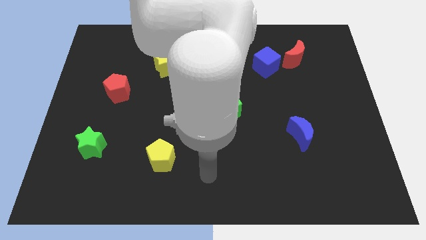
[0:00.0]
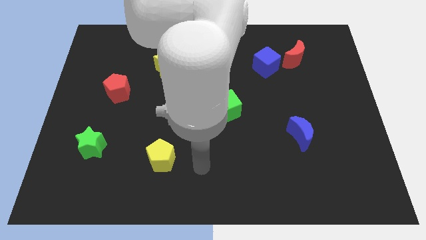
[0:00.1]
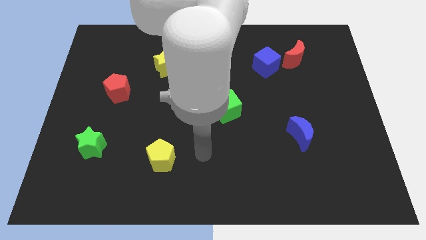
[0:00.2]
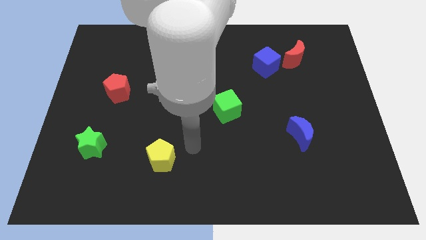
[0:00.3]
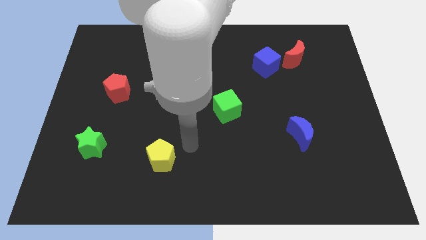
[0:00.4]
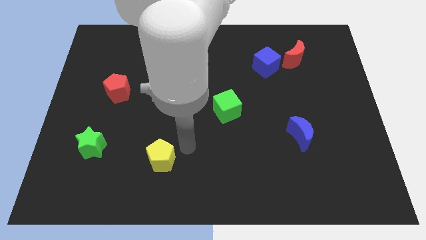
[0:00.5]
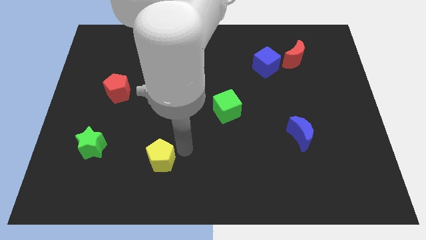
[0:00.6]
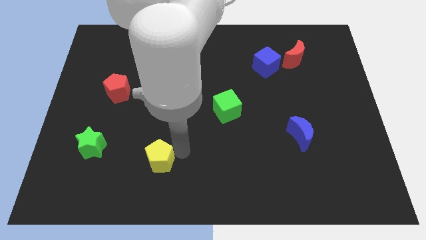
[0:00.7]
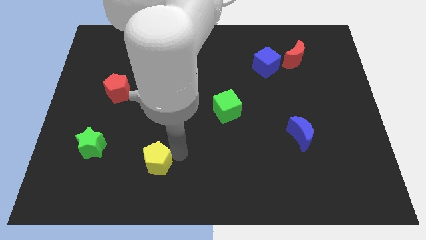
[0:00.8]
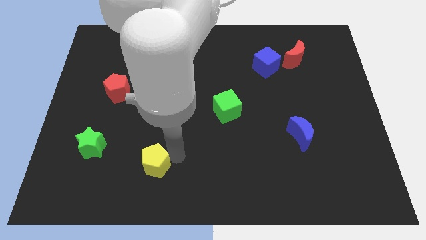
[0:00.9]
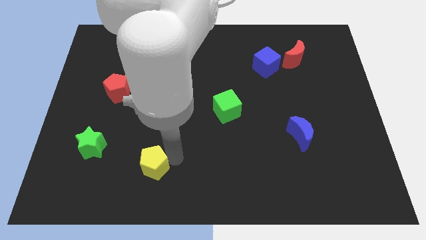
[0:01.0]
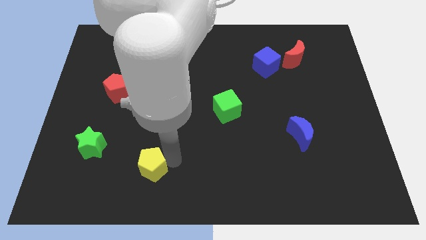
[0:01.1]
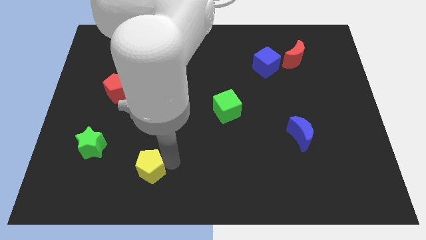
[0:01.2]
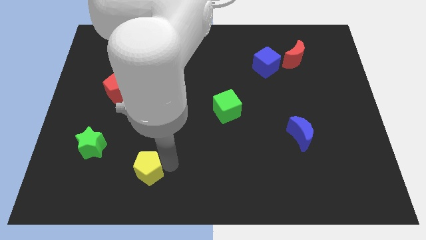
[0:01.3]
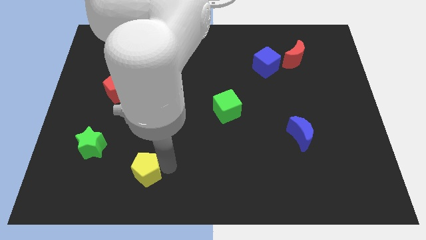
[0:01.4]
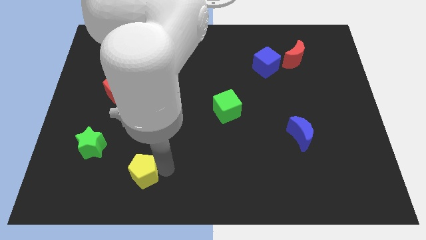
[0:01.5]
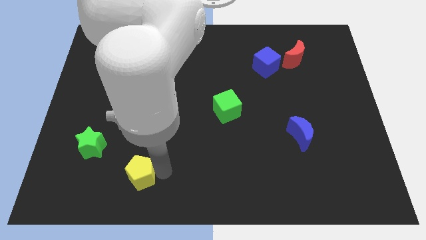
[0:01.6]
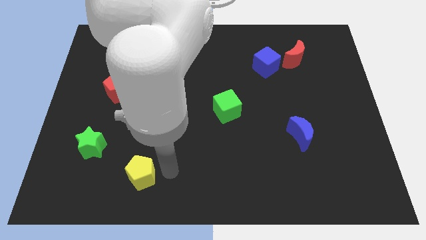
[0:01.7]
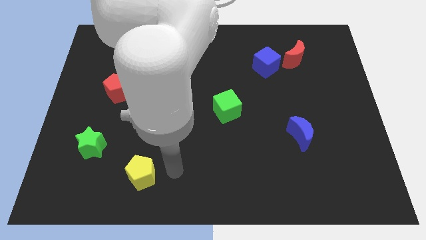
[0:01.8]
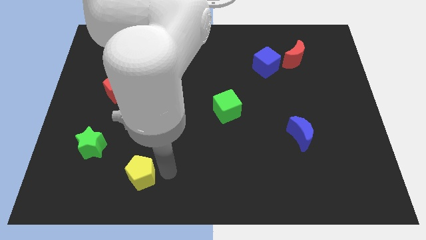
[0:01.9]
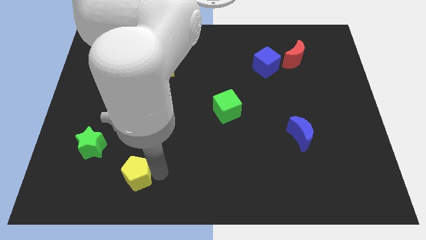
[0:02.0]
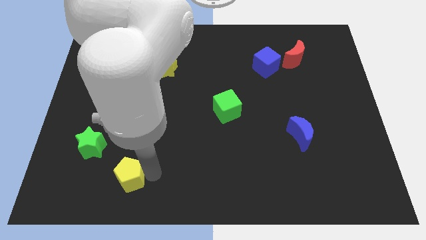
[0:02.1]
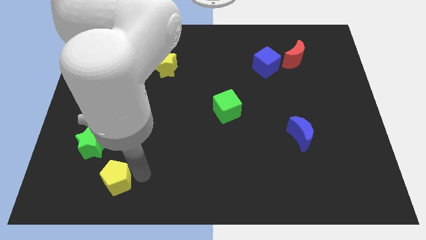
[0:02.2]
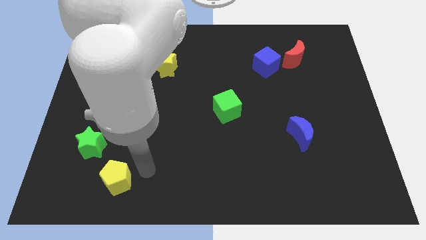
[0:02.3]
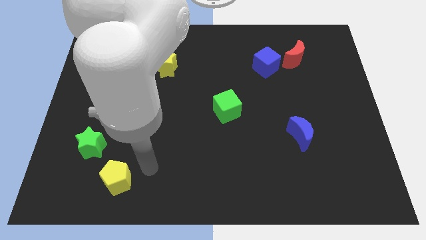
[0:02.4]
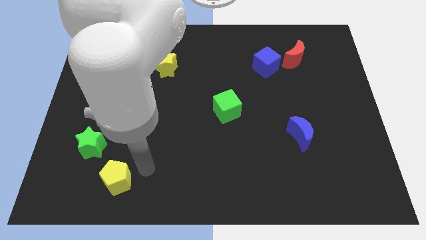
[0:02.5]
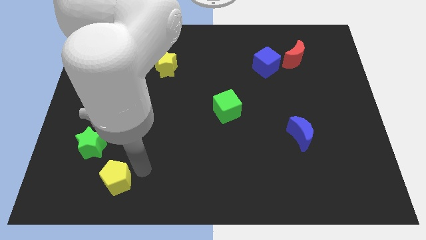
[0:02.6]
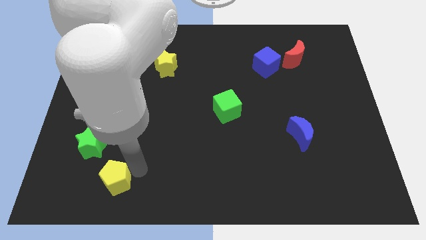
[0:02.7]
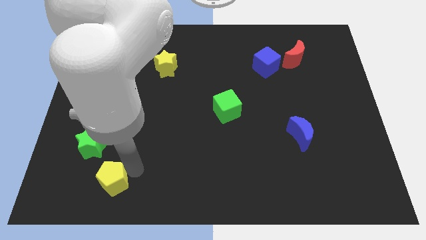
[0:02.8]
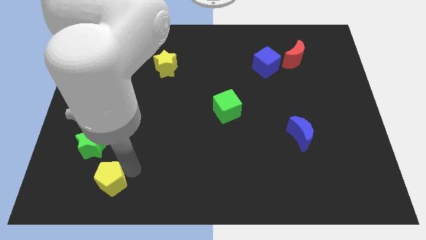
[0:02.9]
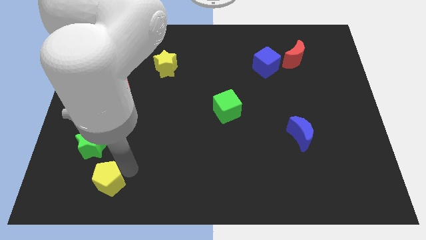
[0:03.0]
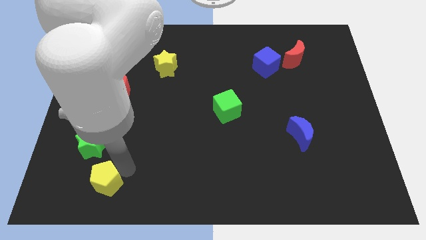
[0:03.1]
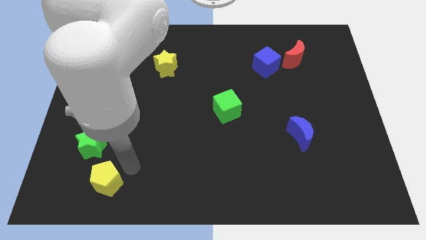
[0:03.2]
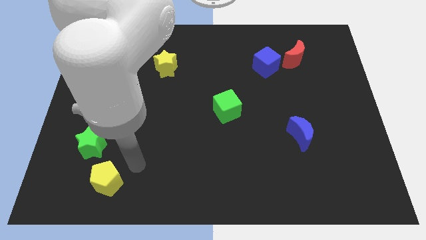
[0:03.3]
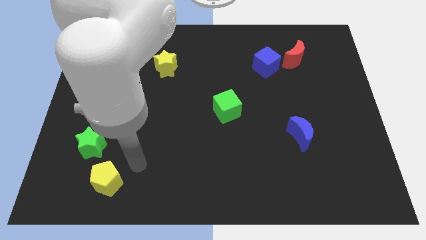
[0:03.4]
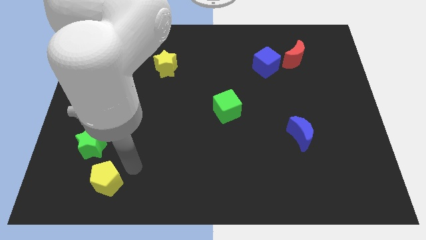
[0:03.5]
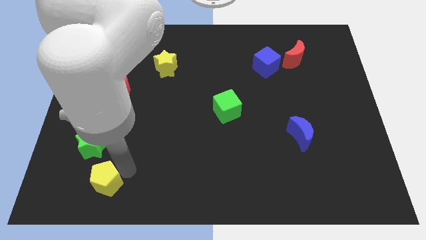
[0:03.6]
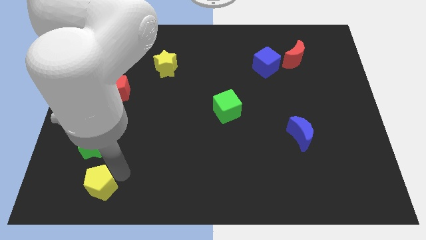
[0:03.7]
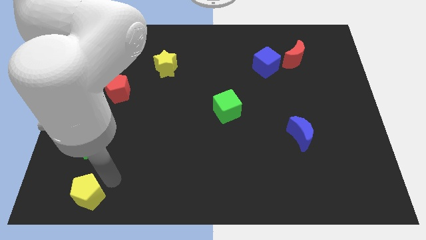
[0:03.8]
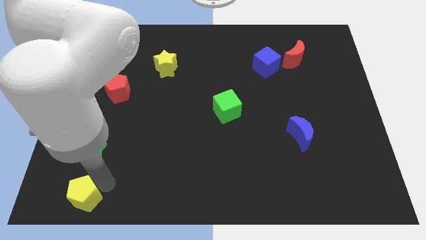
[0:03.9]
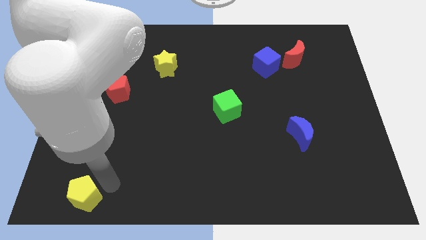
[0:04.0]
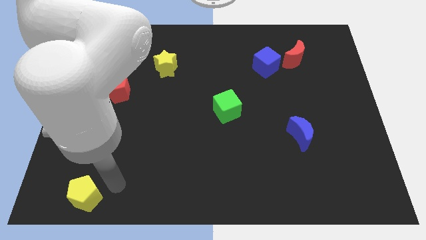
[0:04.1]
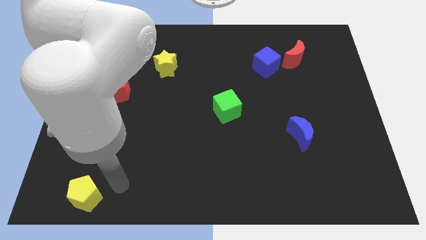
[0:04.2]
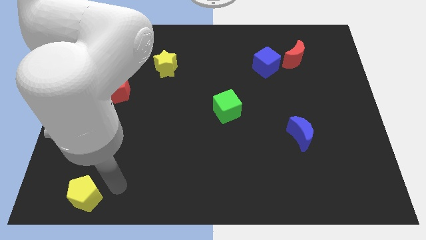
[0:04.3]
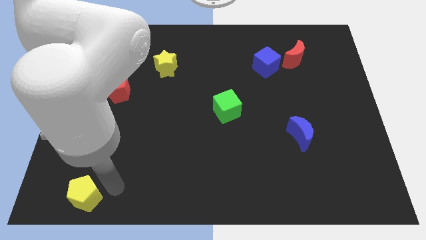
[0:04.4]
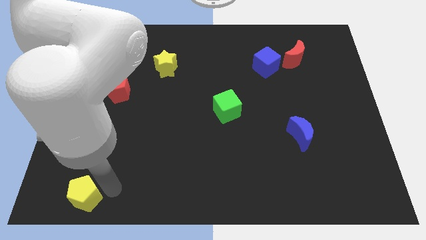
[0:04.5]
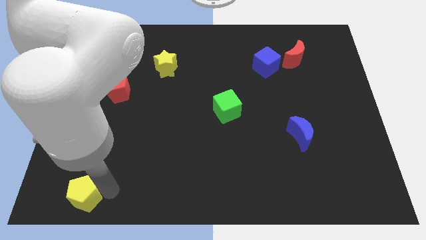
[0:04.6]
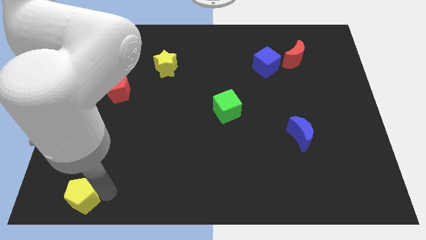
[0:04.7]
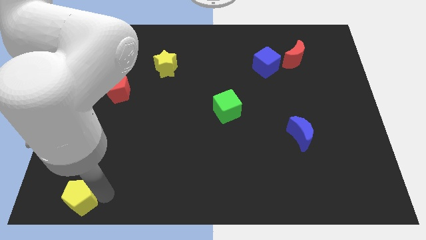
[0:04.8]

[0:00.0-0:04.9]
push the yellow pentagon to the bottom left of the board

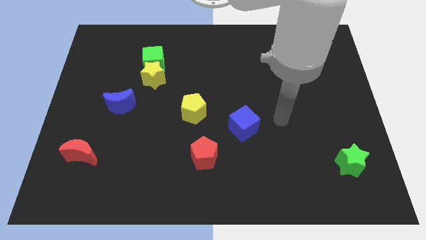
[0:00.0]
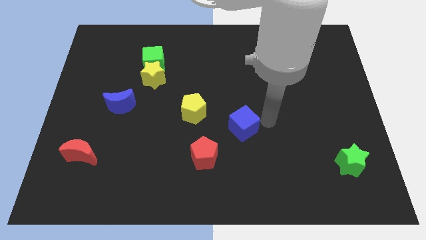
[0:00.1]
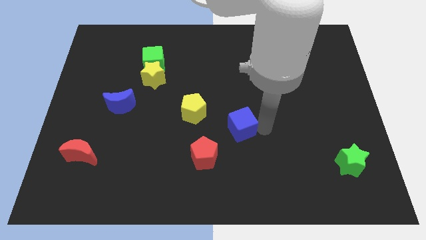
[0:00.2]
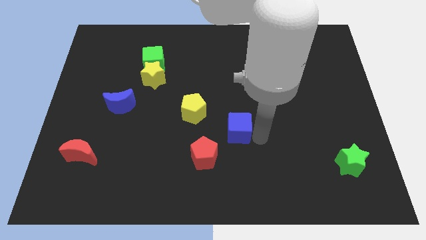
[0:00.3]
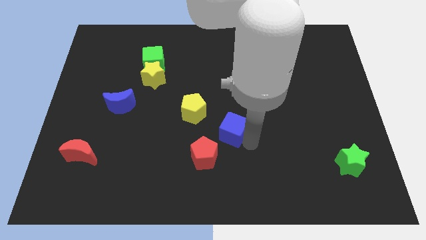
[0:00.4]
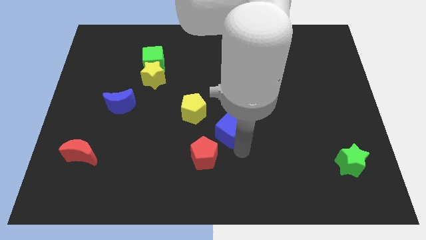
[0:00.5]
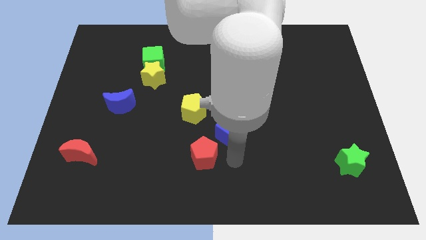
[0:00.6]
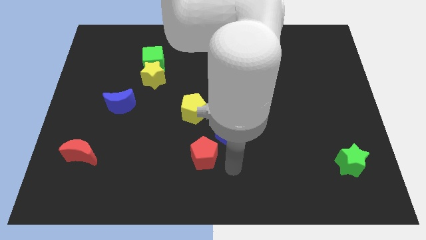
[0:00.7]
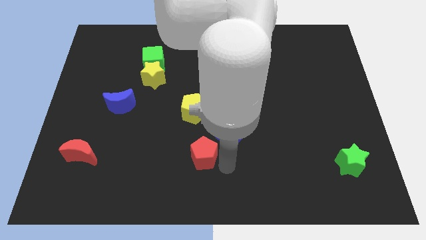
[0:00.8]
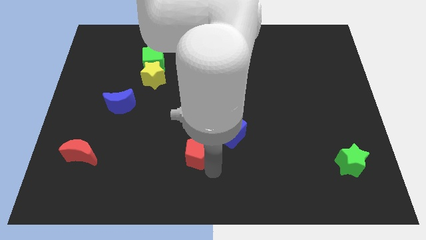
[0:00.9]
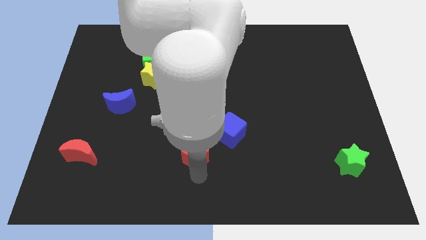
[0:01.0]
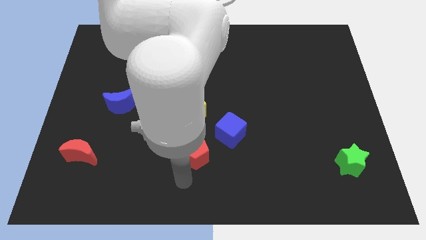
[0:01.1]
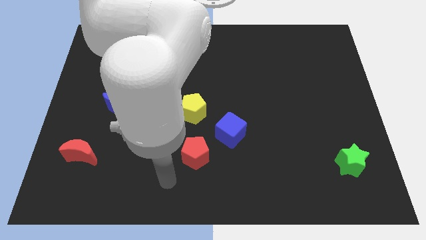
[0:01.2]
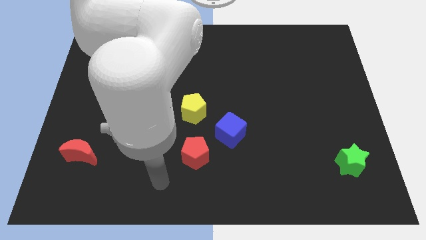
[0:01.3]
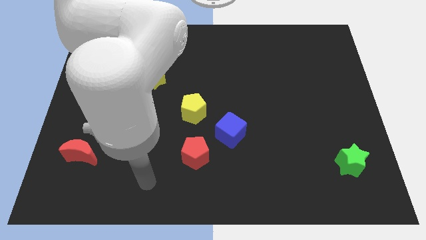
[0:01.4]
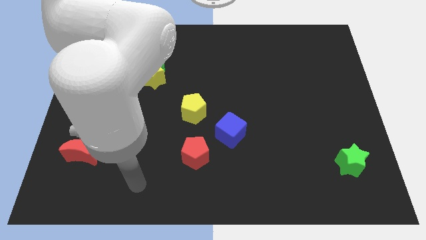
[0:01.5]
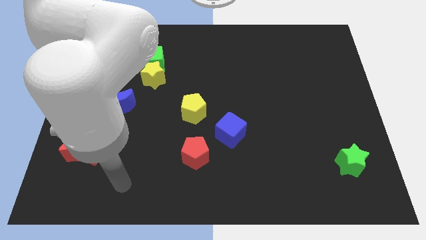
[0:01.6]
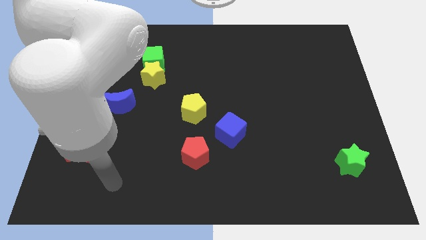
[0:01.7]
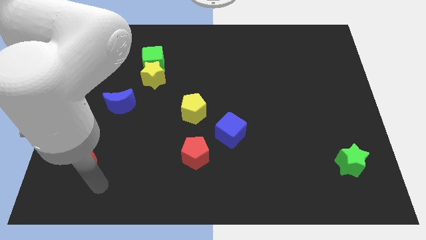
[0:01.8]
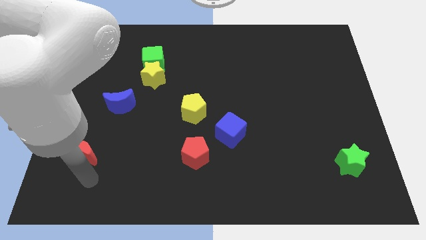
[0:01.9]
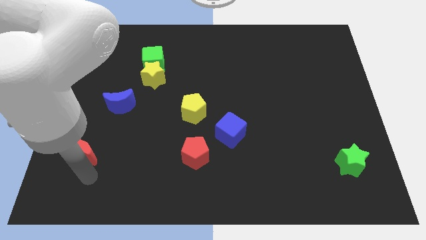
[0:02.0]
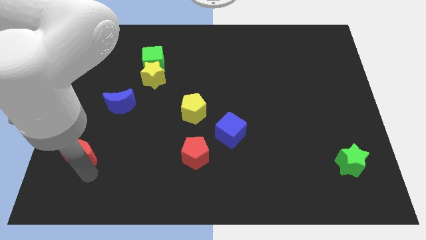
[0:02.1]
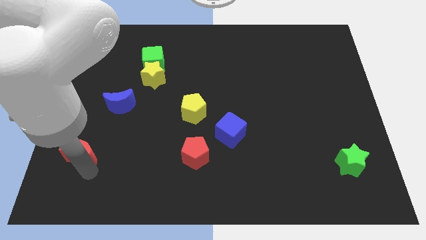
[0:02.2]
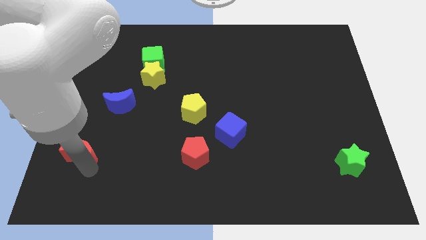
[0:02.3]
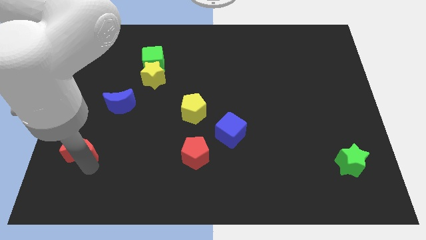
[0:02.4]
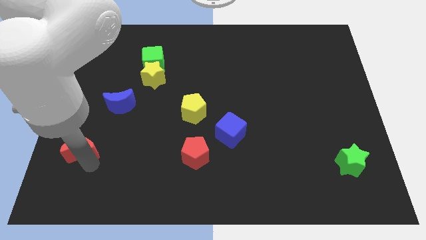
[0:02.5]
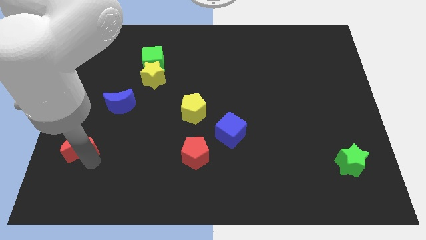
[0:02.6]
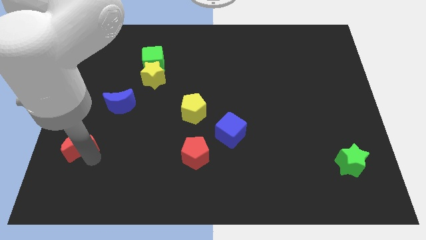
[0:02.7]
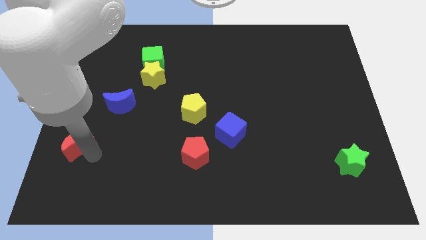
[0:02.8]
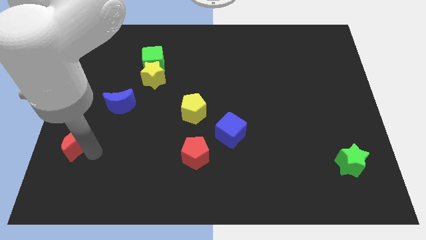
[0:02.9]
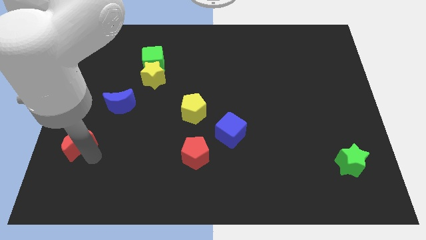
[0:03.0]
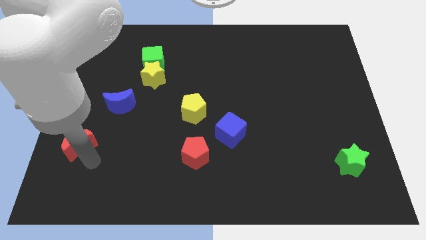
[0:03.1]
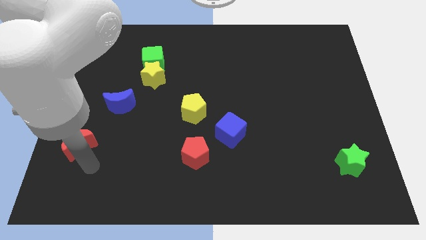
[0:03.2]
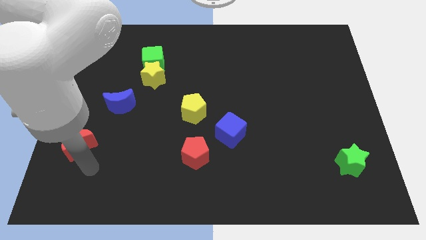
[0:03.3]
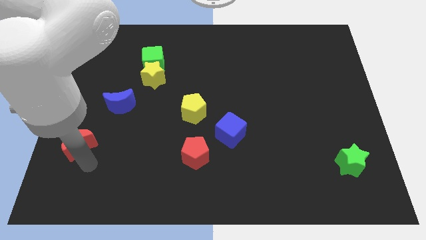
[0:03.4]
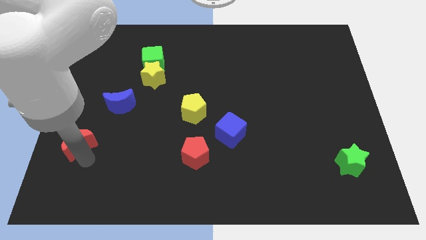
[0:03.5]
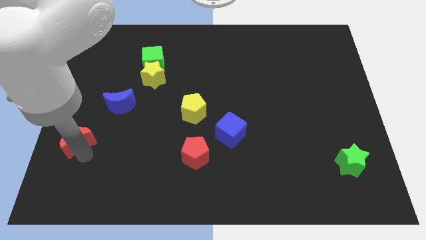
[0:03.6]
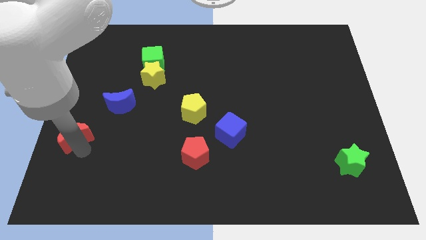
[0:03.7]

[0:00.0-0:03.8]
slide the red moon to the center left
